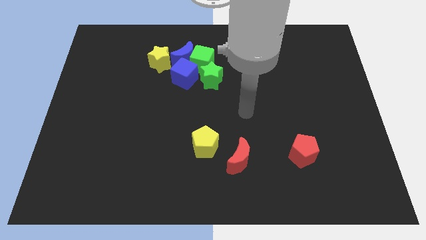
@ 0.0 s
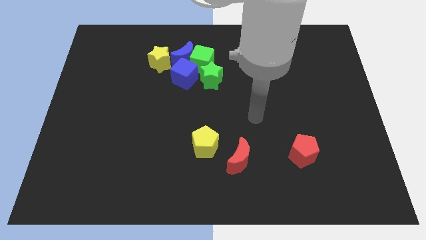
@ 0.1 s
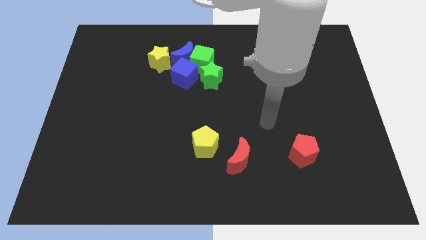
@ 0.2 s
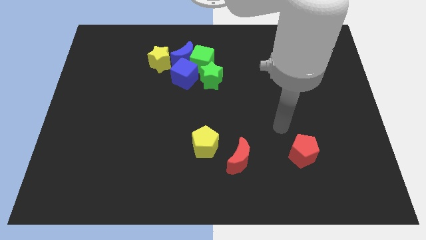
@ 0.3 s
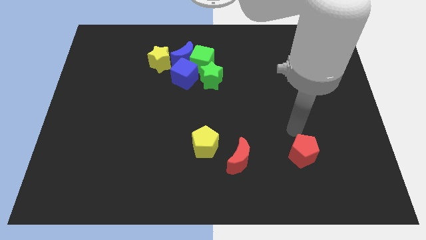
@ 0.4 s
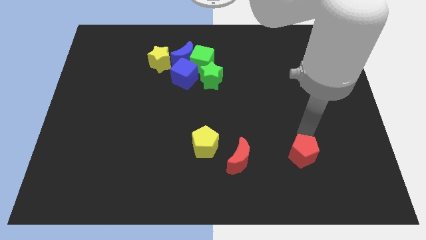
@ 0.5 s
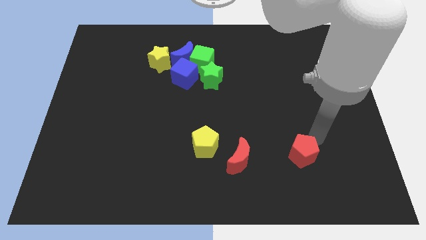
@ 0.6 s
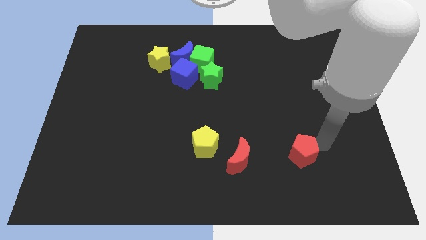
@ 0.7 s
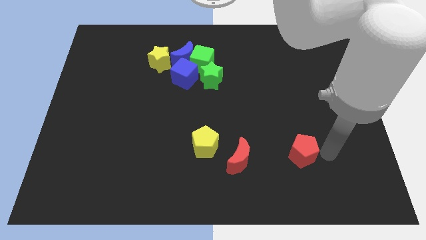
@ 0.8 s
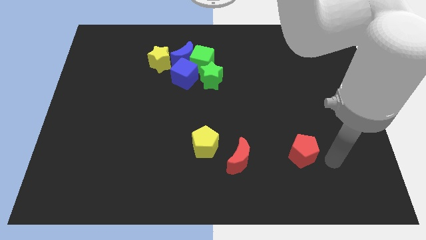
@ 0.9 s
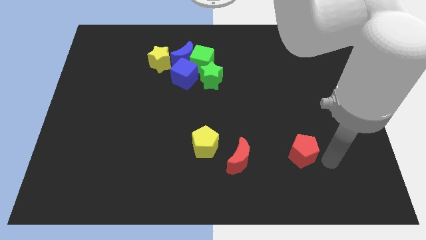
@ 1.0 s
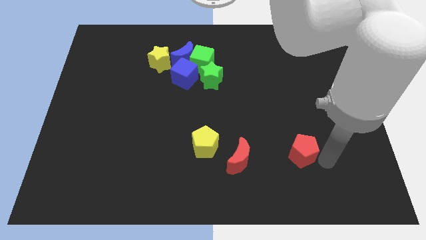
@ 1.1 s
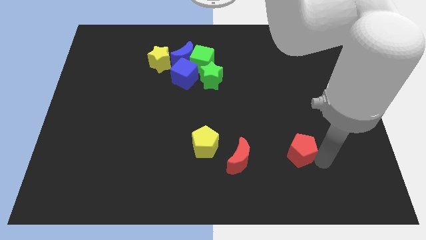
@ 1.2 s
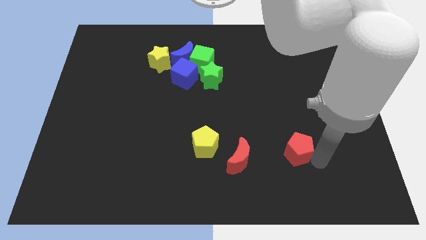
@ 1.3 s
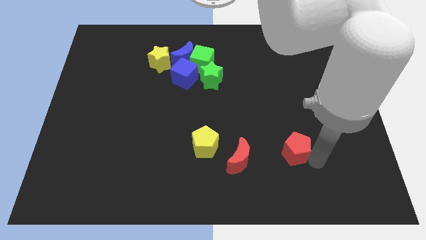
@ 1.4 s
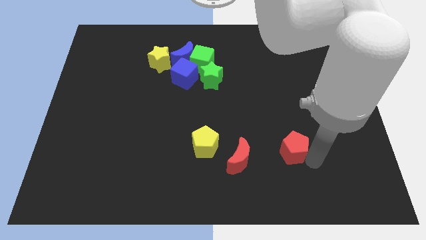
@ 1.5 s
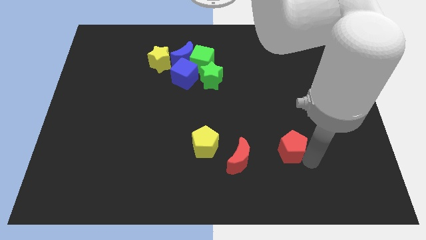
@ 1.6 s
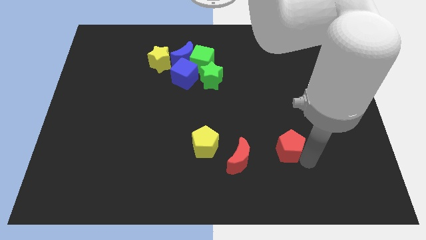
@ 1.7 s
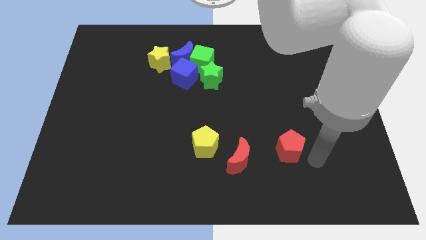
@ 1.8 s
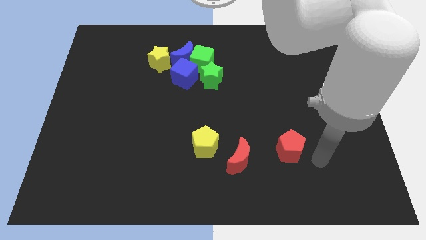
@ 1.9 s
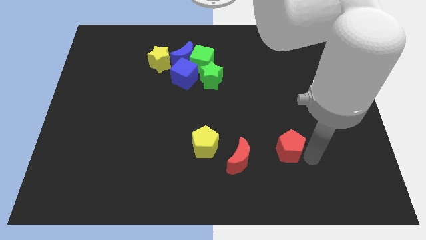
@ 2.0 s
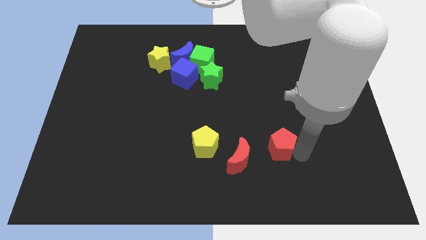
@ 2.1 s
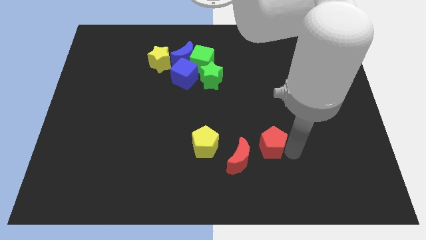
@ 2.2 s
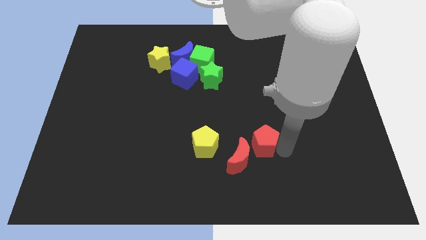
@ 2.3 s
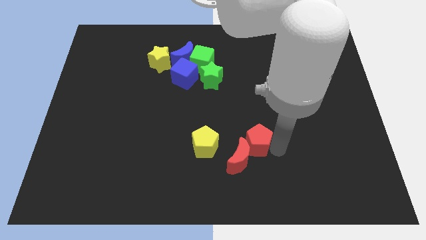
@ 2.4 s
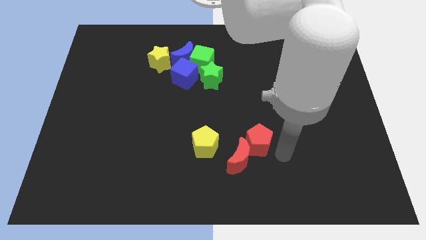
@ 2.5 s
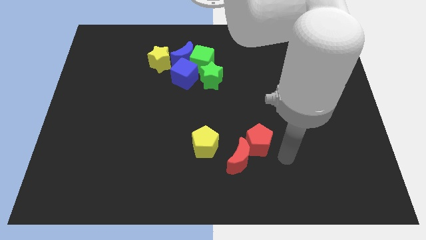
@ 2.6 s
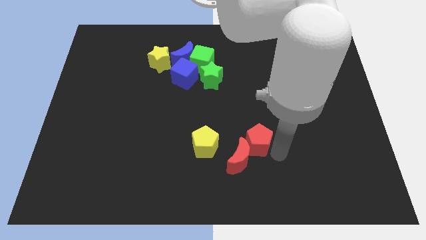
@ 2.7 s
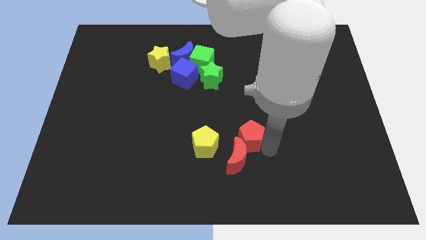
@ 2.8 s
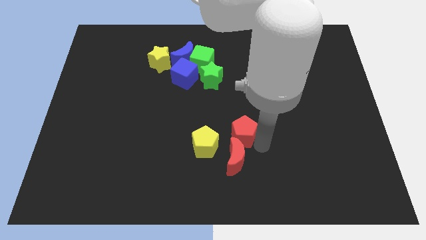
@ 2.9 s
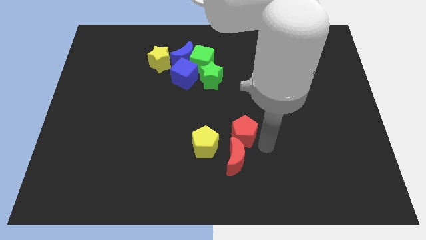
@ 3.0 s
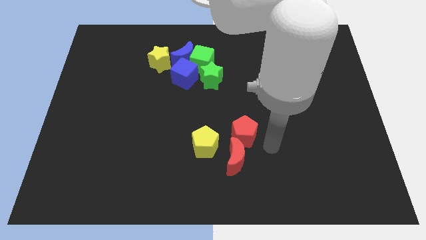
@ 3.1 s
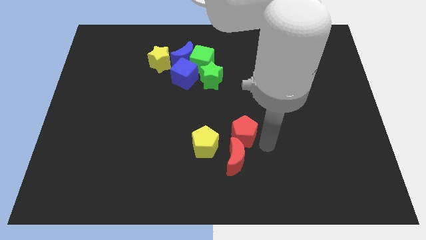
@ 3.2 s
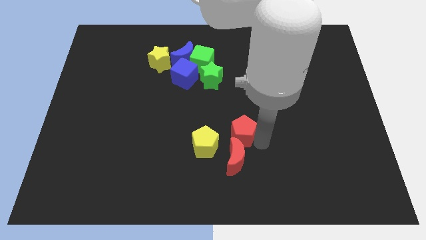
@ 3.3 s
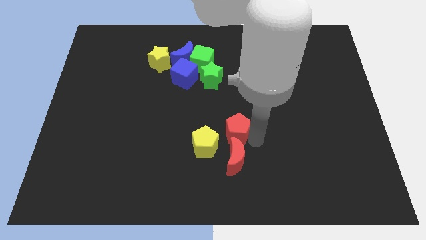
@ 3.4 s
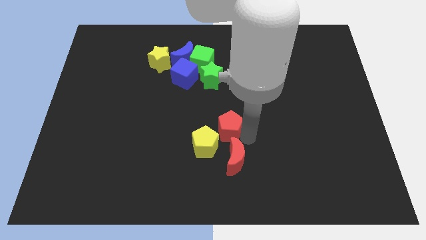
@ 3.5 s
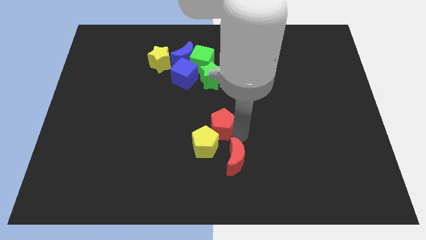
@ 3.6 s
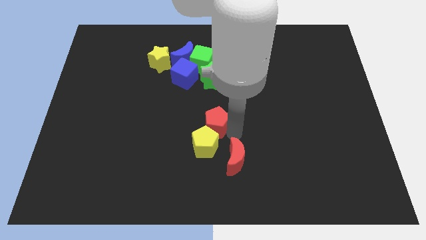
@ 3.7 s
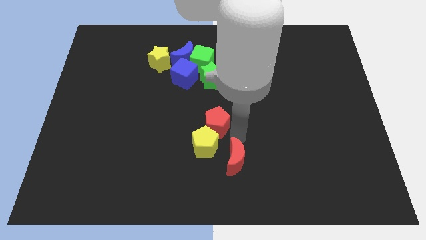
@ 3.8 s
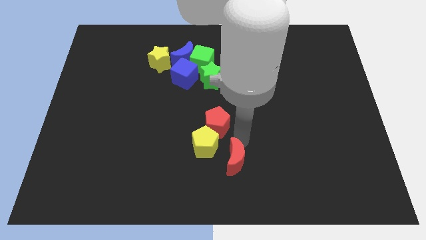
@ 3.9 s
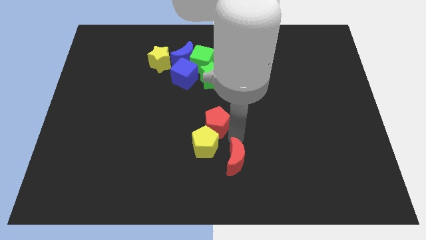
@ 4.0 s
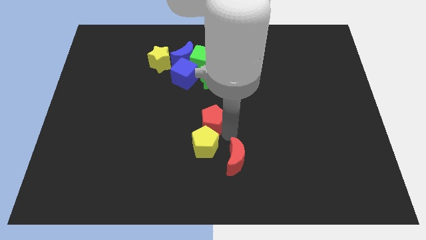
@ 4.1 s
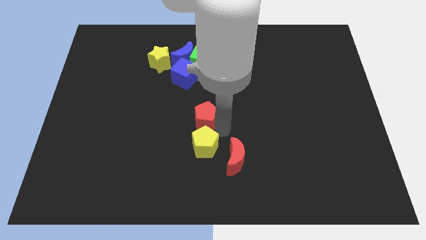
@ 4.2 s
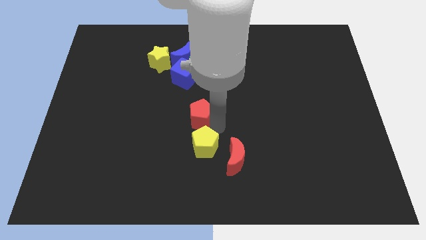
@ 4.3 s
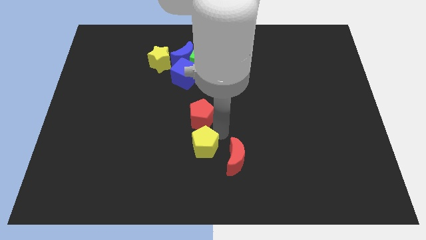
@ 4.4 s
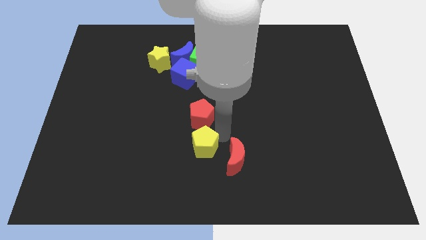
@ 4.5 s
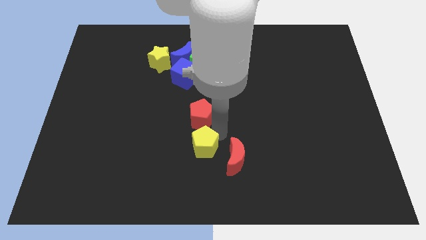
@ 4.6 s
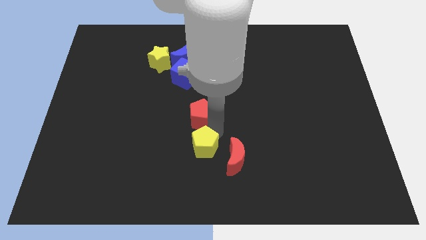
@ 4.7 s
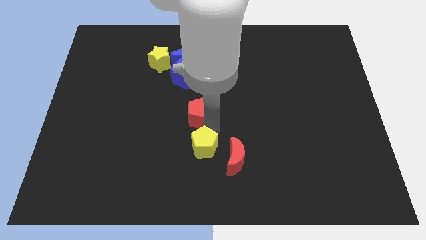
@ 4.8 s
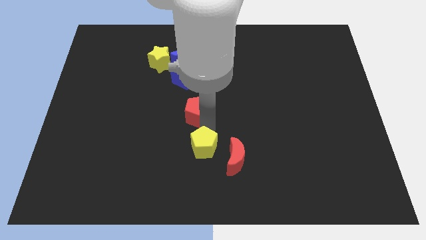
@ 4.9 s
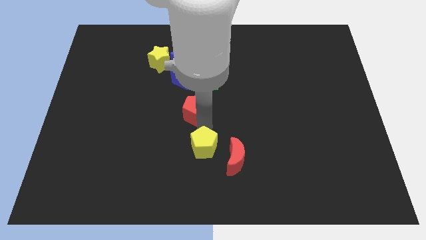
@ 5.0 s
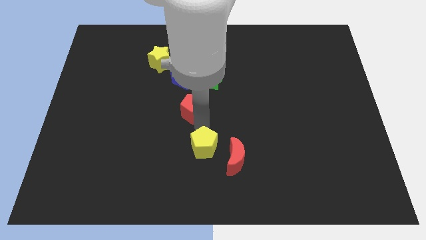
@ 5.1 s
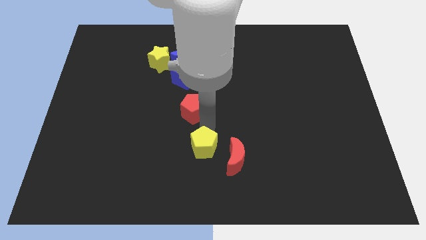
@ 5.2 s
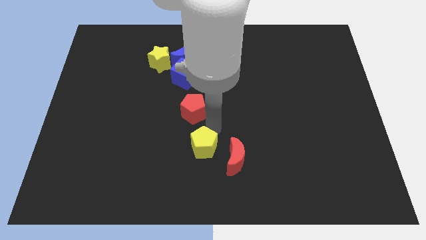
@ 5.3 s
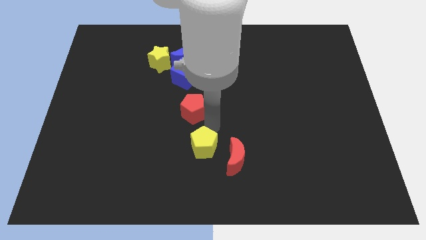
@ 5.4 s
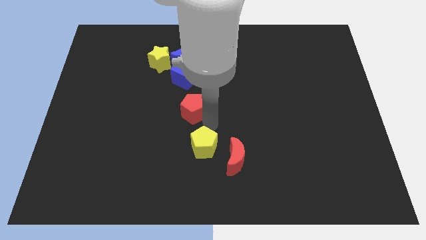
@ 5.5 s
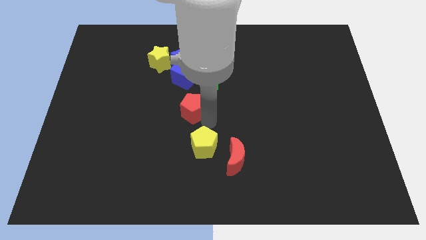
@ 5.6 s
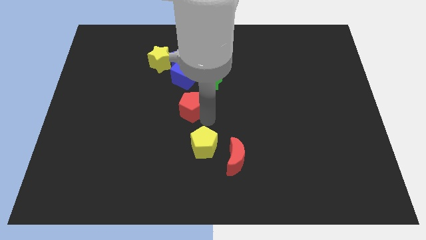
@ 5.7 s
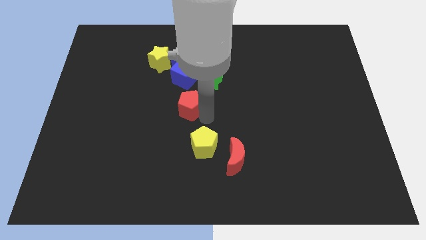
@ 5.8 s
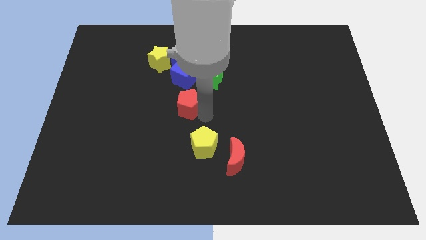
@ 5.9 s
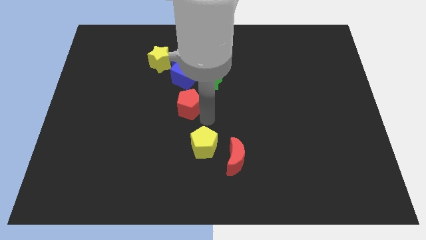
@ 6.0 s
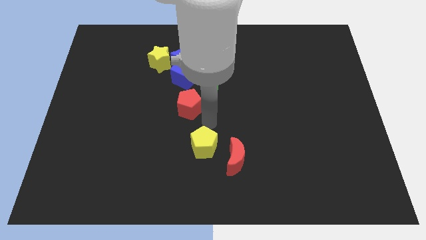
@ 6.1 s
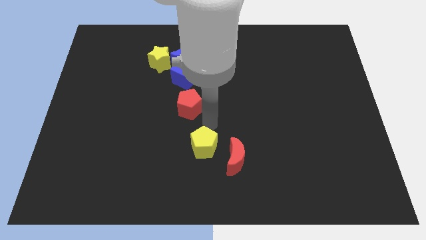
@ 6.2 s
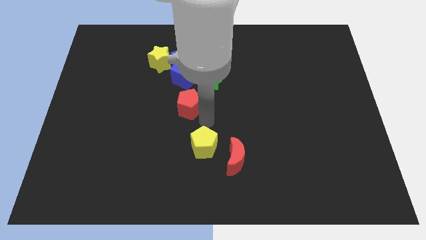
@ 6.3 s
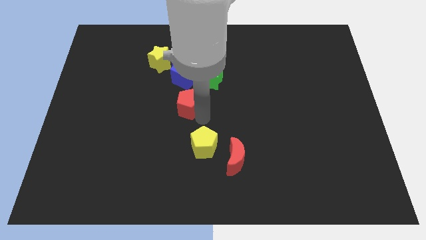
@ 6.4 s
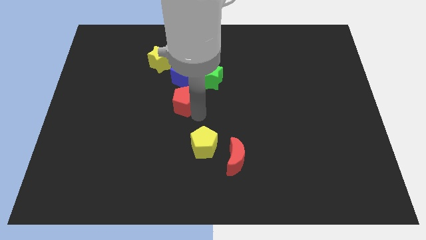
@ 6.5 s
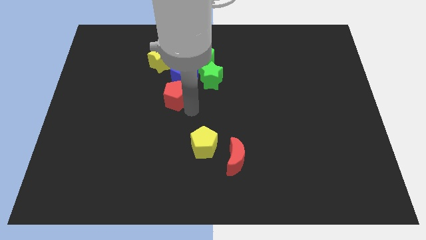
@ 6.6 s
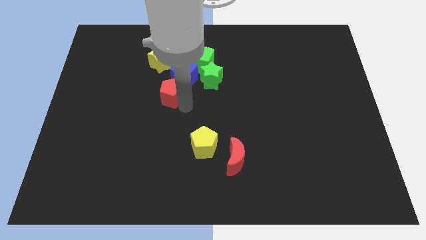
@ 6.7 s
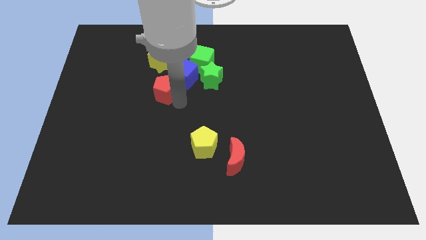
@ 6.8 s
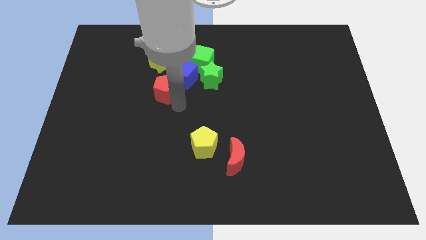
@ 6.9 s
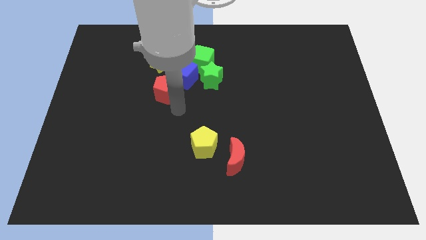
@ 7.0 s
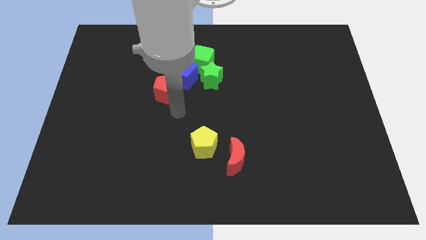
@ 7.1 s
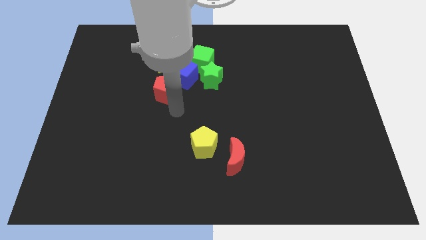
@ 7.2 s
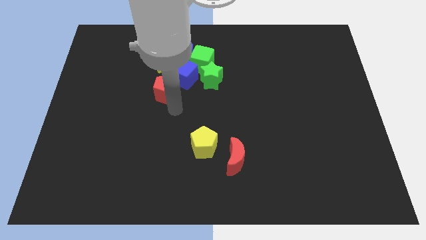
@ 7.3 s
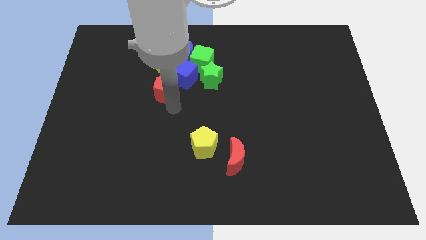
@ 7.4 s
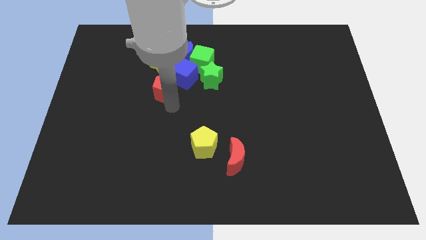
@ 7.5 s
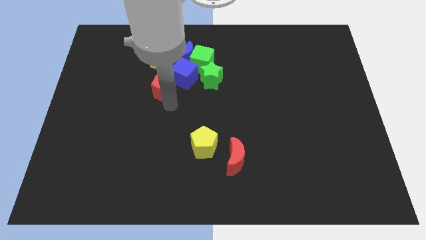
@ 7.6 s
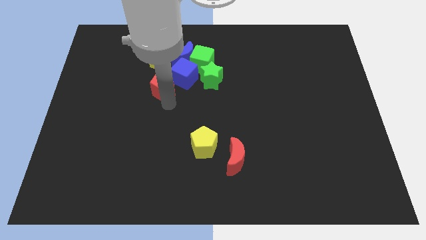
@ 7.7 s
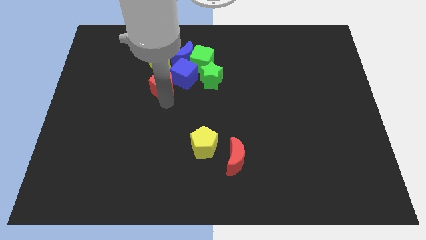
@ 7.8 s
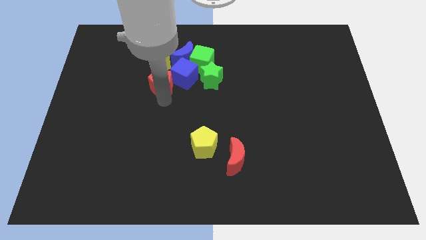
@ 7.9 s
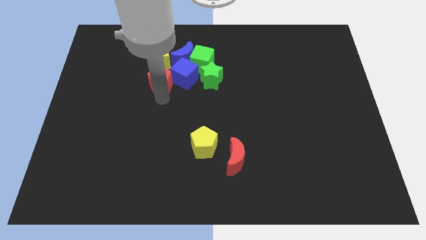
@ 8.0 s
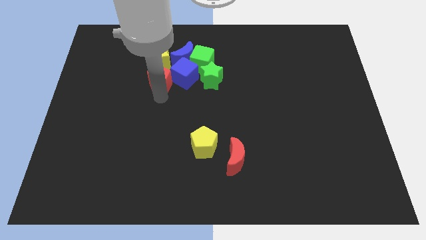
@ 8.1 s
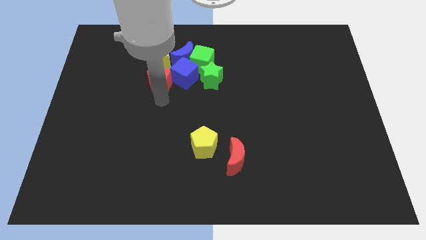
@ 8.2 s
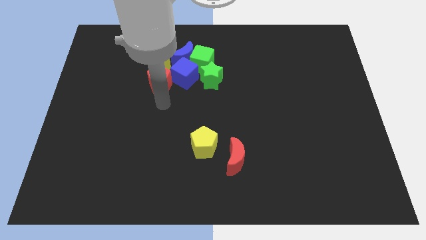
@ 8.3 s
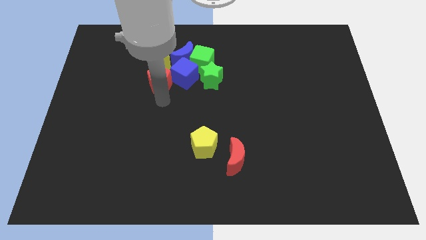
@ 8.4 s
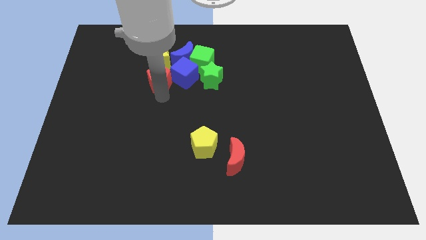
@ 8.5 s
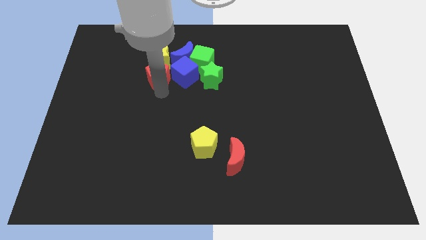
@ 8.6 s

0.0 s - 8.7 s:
push the red pentagon to the yellow star
